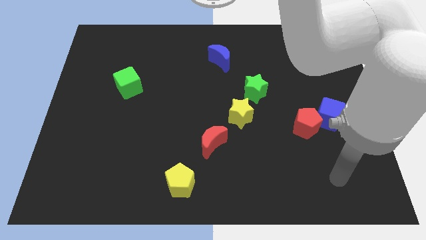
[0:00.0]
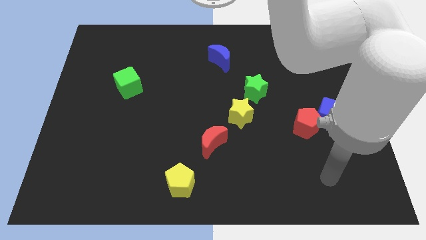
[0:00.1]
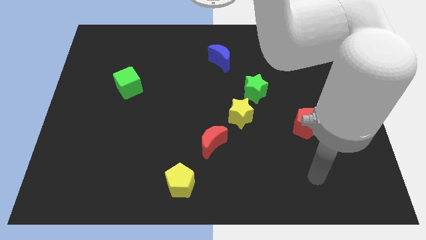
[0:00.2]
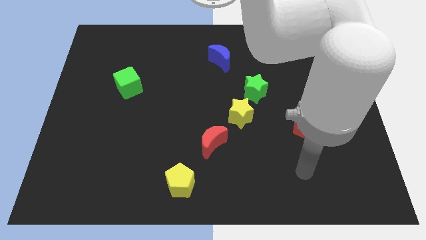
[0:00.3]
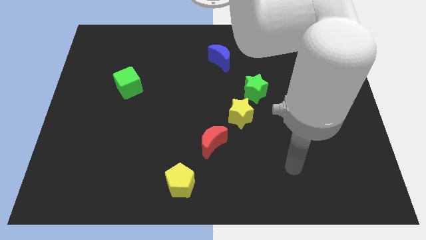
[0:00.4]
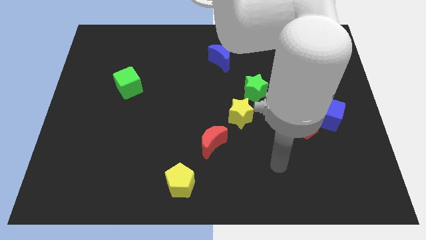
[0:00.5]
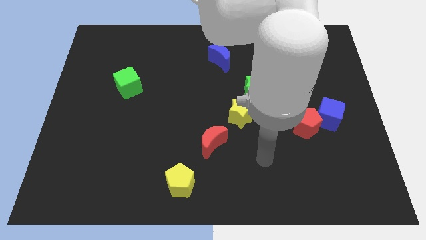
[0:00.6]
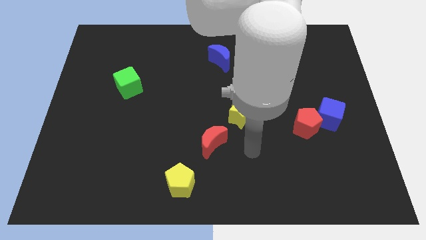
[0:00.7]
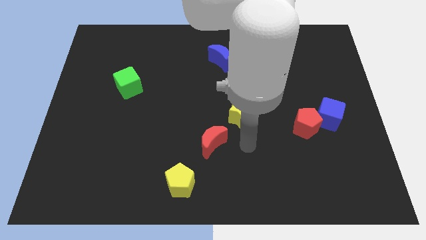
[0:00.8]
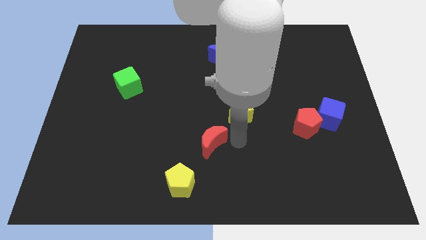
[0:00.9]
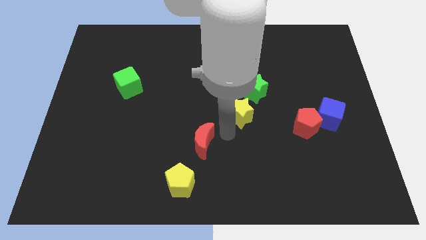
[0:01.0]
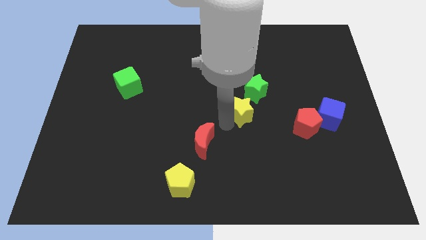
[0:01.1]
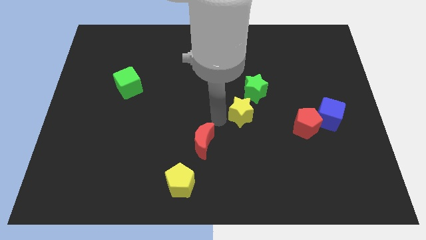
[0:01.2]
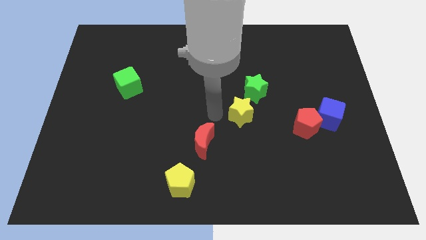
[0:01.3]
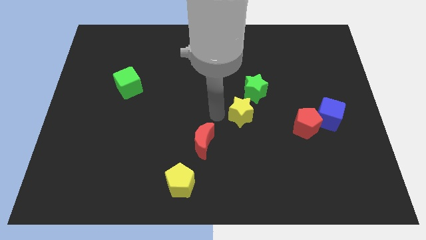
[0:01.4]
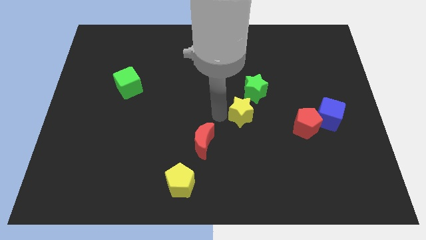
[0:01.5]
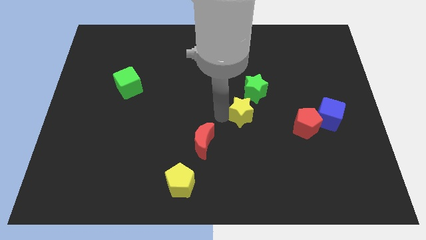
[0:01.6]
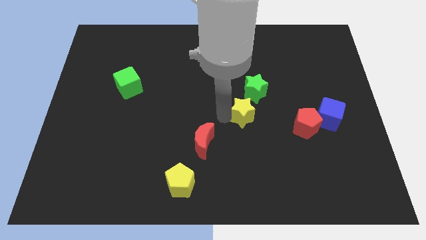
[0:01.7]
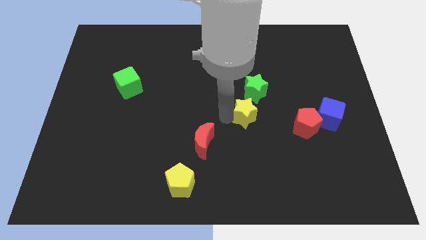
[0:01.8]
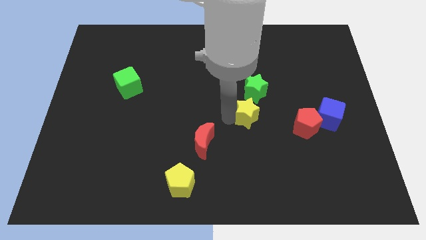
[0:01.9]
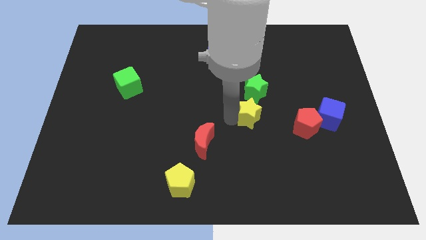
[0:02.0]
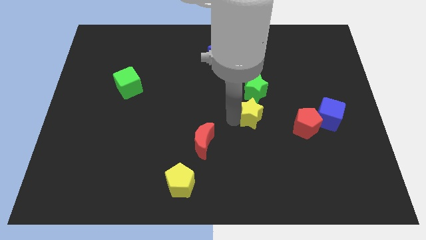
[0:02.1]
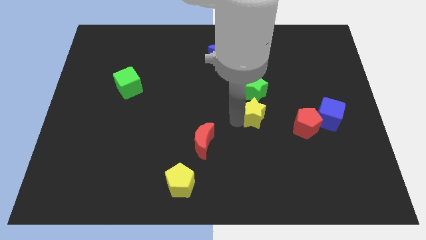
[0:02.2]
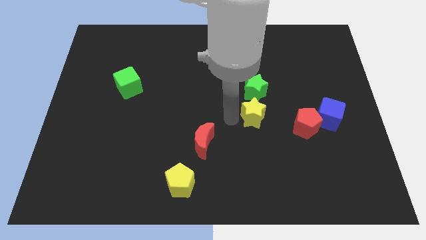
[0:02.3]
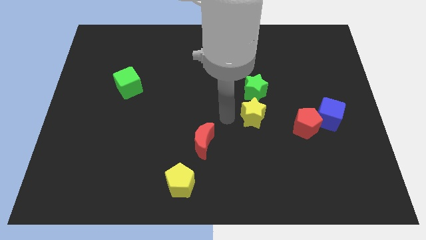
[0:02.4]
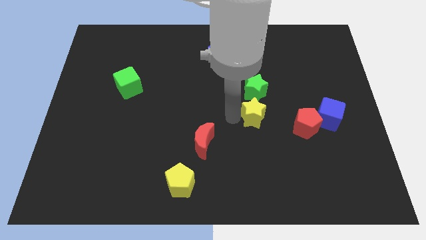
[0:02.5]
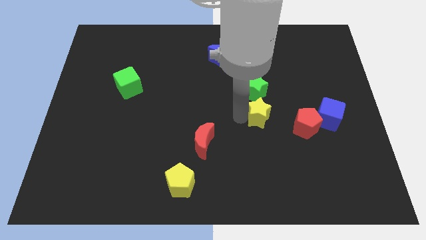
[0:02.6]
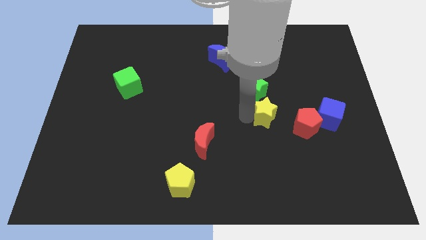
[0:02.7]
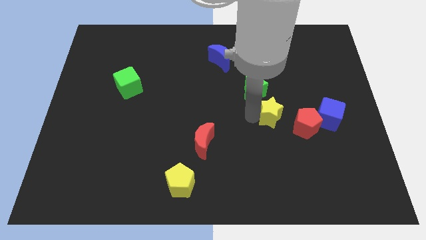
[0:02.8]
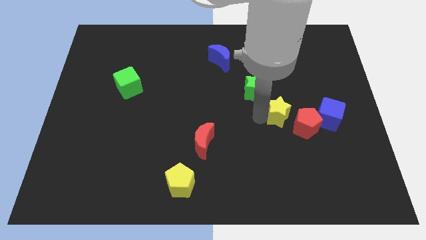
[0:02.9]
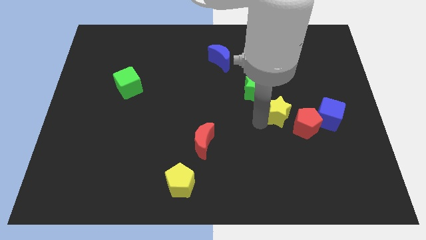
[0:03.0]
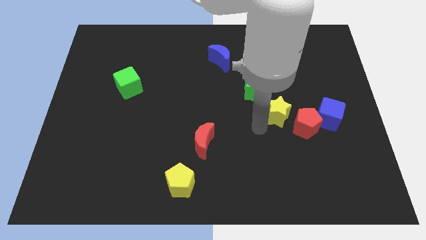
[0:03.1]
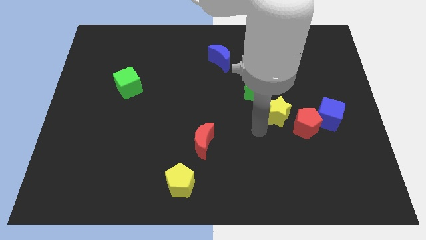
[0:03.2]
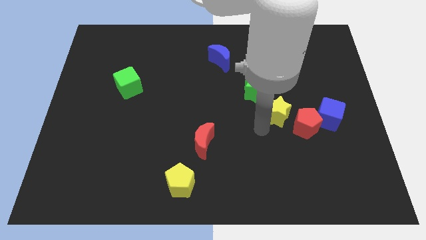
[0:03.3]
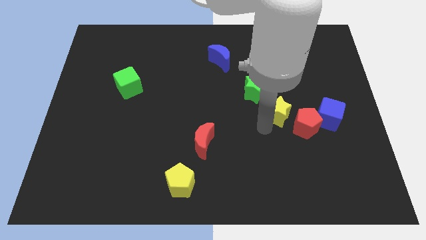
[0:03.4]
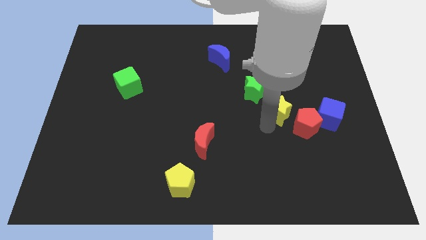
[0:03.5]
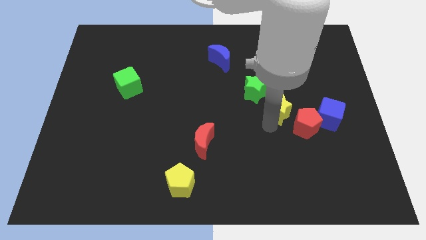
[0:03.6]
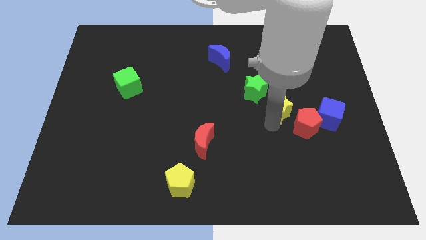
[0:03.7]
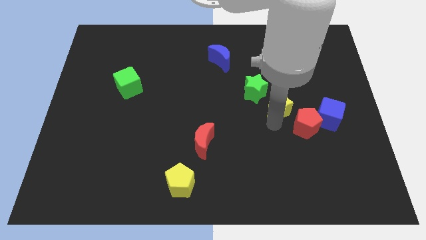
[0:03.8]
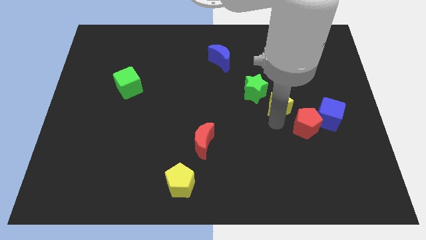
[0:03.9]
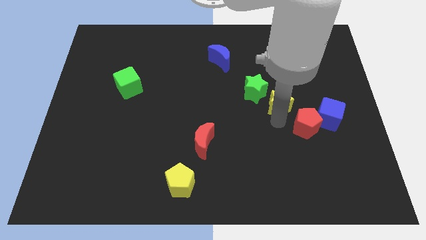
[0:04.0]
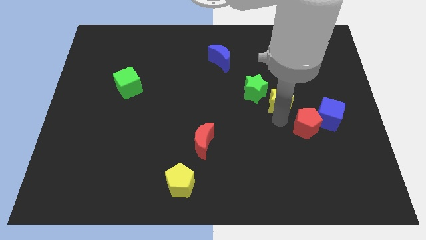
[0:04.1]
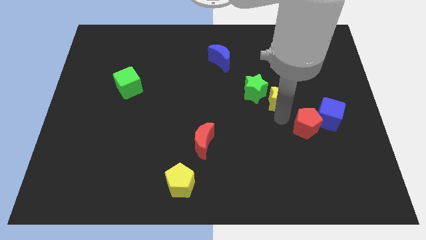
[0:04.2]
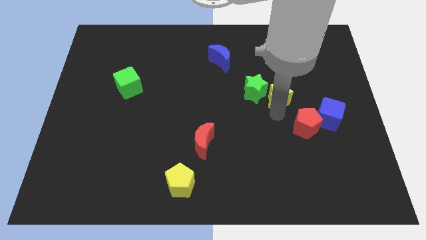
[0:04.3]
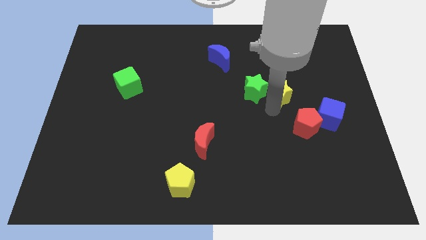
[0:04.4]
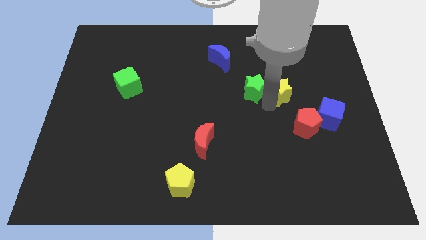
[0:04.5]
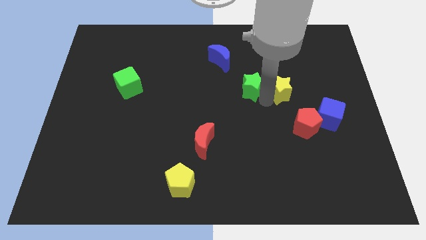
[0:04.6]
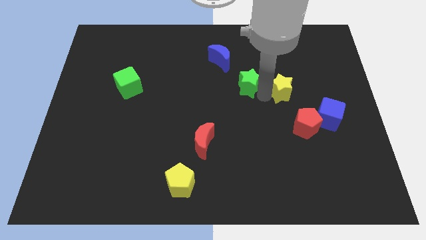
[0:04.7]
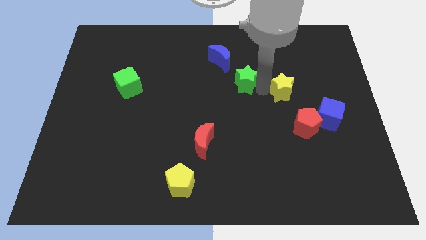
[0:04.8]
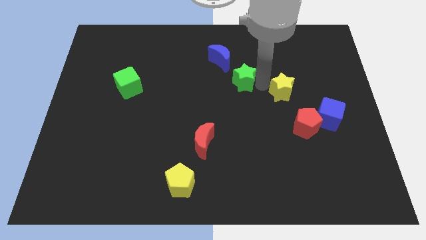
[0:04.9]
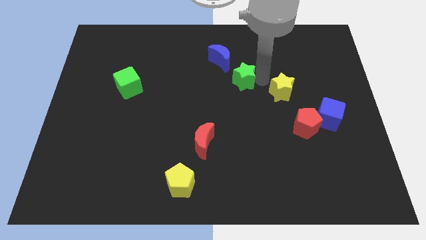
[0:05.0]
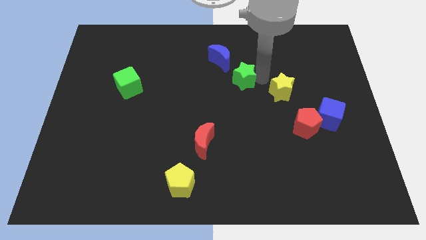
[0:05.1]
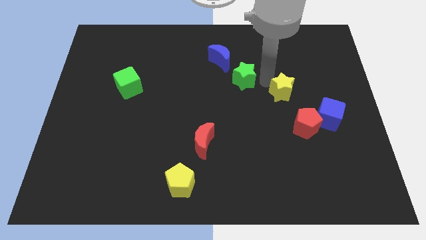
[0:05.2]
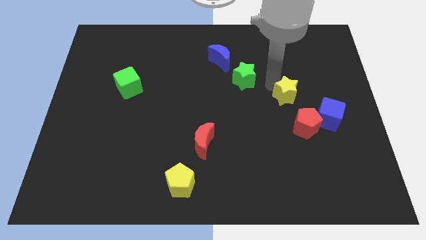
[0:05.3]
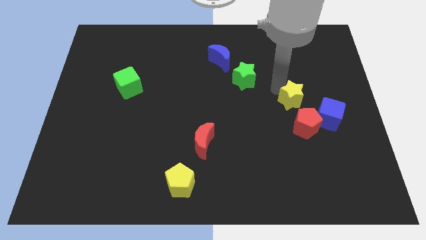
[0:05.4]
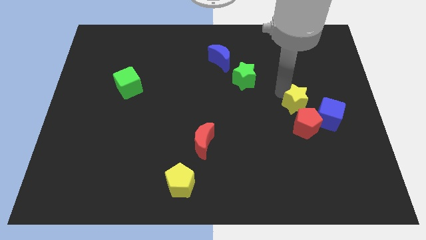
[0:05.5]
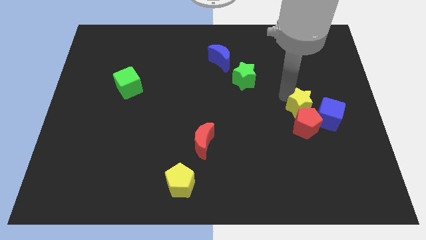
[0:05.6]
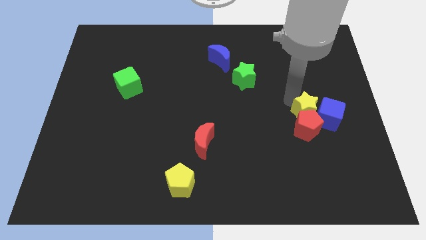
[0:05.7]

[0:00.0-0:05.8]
move the yellow star to the blue cube

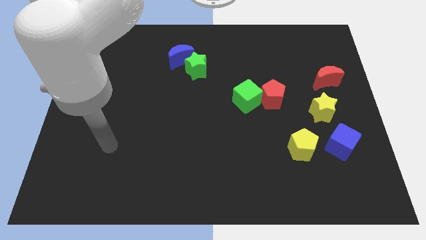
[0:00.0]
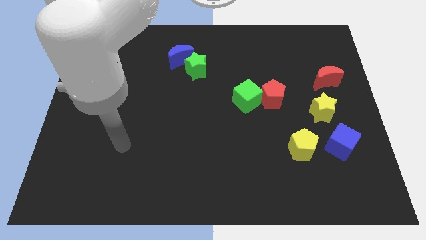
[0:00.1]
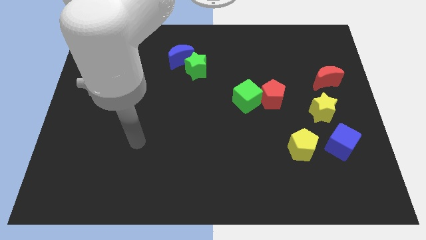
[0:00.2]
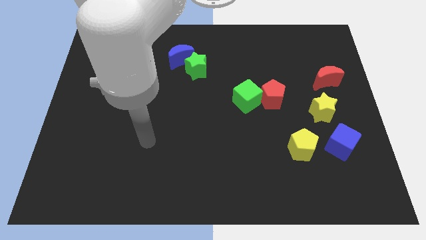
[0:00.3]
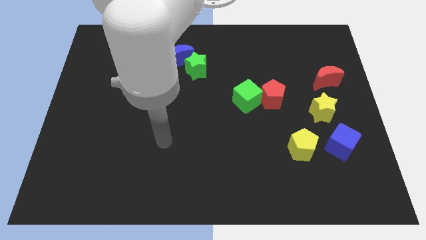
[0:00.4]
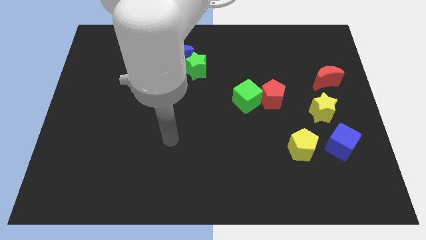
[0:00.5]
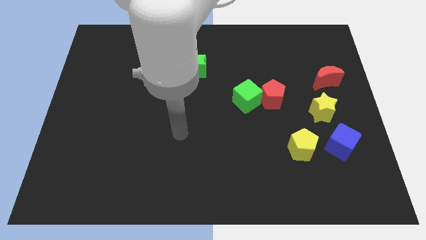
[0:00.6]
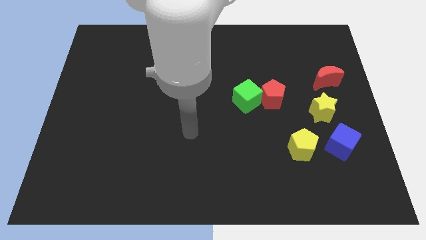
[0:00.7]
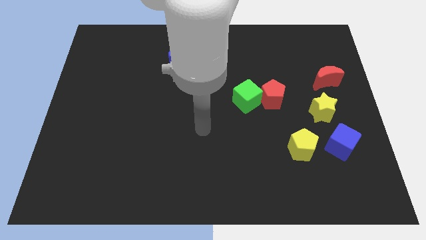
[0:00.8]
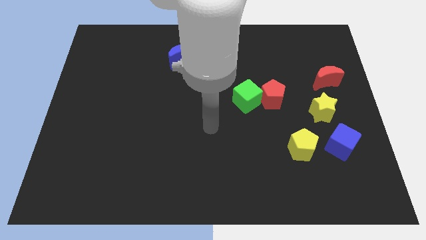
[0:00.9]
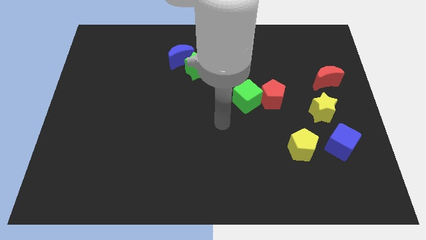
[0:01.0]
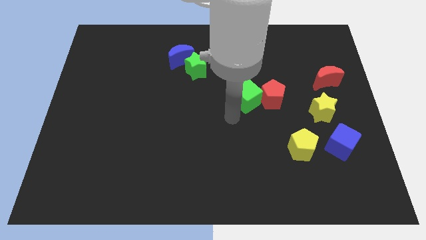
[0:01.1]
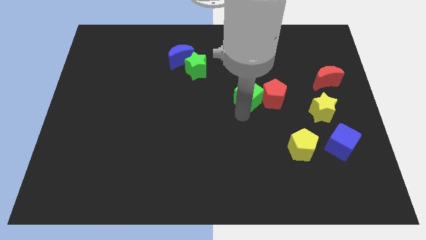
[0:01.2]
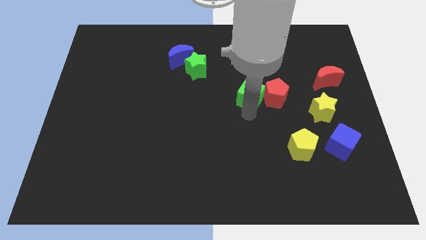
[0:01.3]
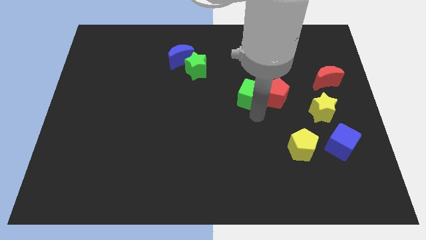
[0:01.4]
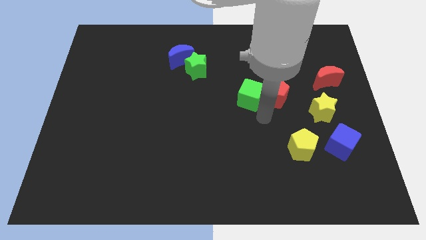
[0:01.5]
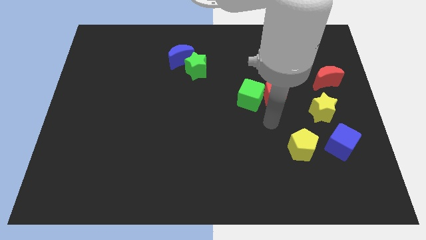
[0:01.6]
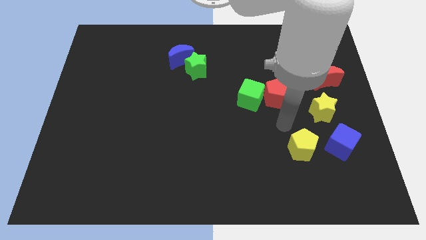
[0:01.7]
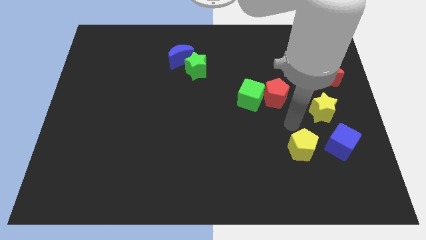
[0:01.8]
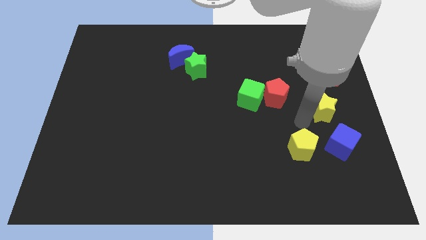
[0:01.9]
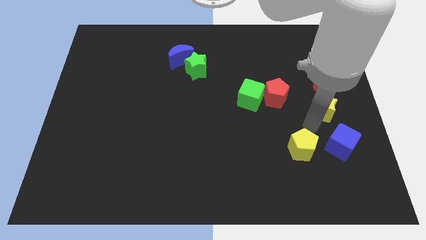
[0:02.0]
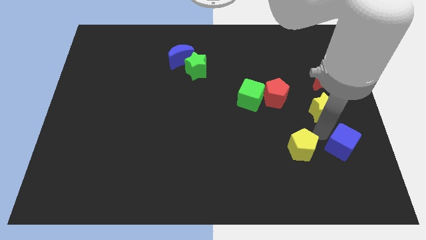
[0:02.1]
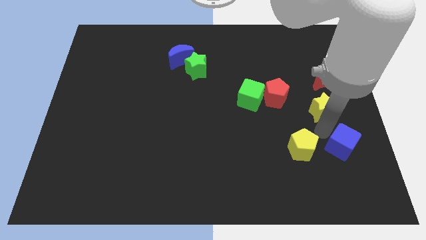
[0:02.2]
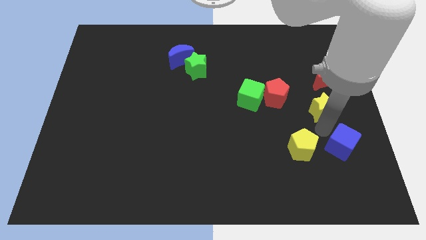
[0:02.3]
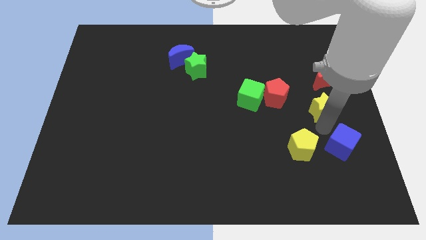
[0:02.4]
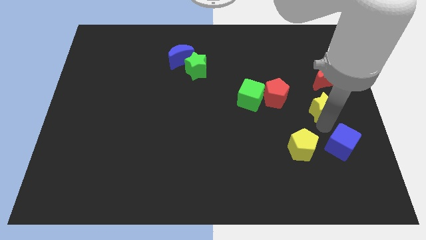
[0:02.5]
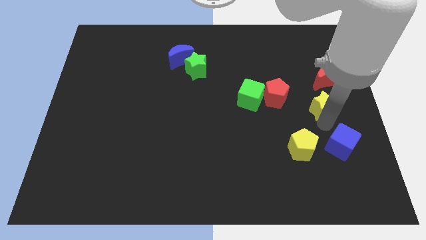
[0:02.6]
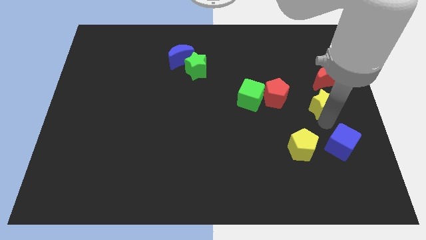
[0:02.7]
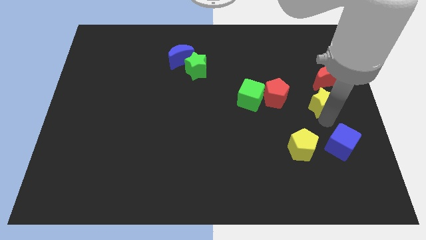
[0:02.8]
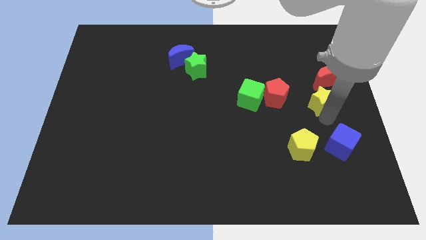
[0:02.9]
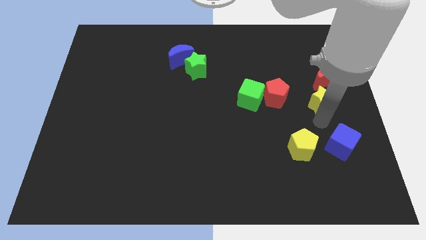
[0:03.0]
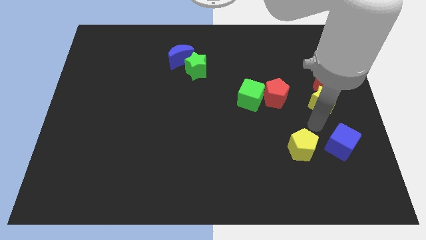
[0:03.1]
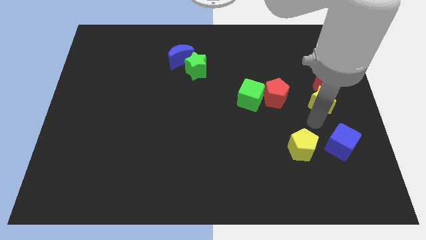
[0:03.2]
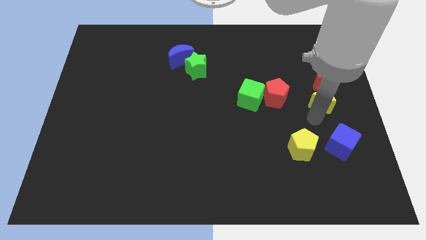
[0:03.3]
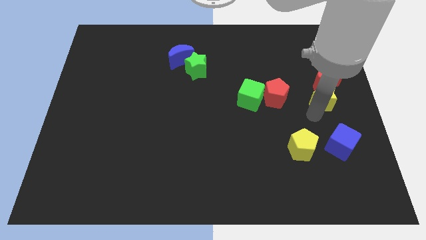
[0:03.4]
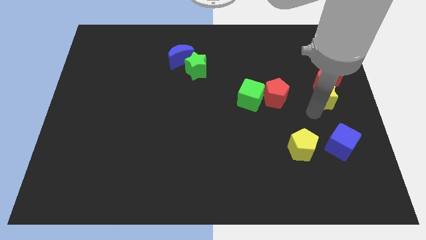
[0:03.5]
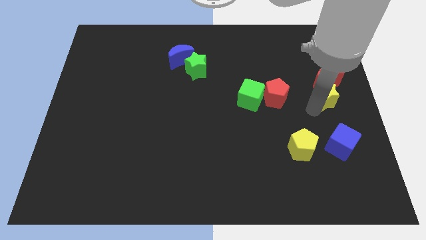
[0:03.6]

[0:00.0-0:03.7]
push the yellow star towards the red moon
